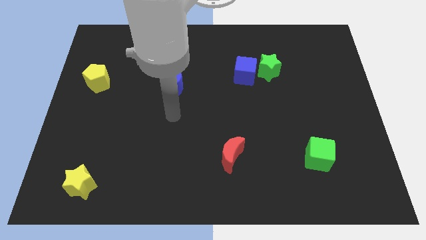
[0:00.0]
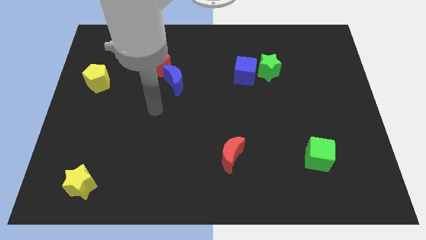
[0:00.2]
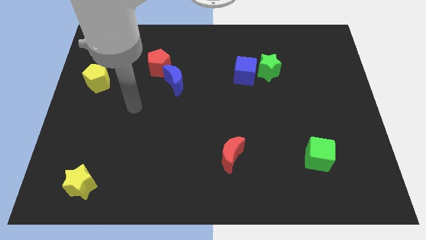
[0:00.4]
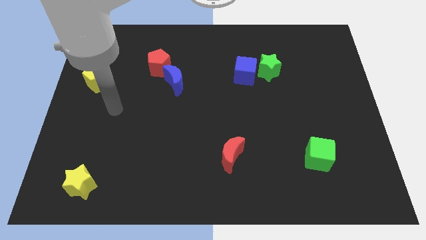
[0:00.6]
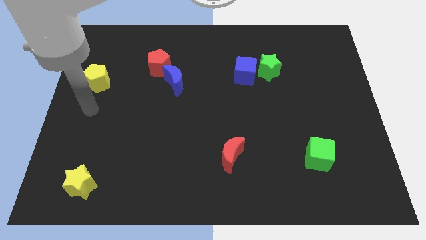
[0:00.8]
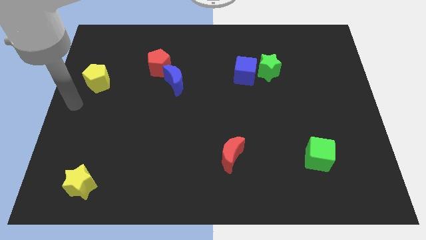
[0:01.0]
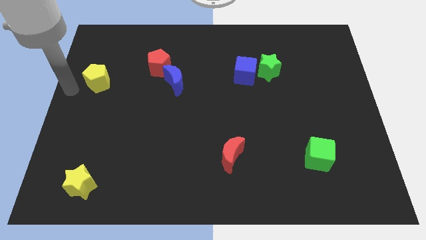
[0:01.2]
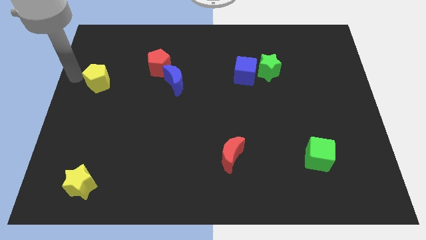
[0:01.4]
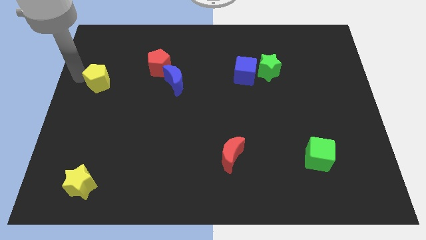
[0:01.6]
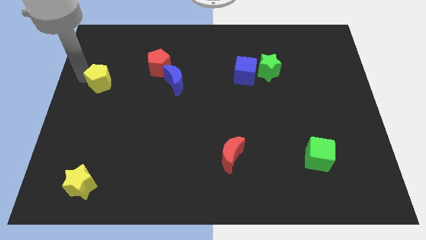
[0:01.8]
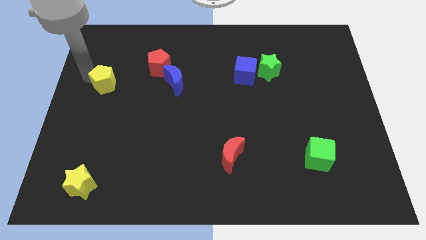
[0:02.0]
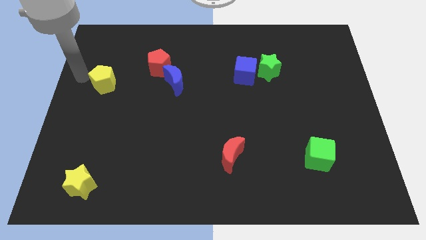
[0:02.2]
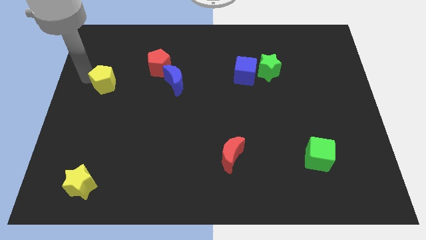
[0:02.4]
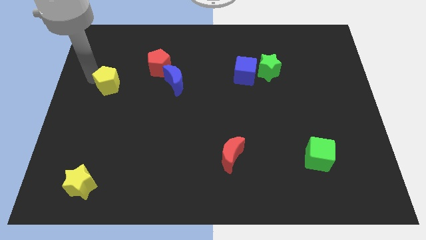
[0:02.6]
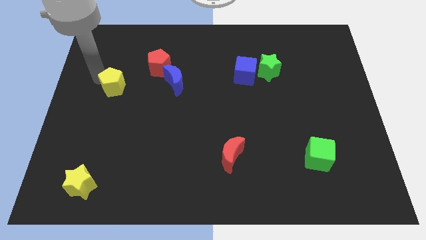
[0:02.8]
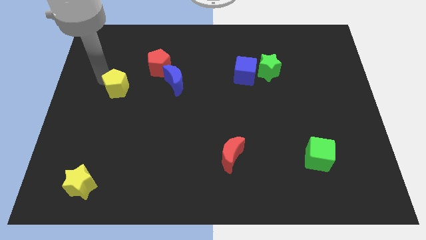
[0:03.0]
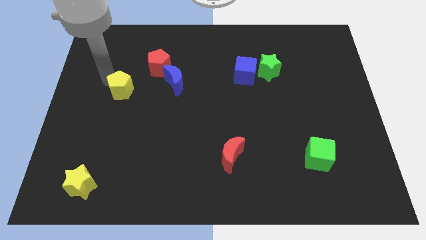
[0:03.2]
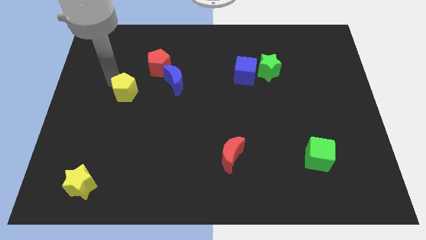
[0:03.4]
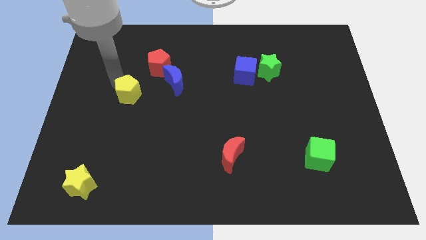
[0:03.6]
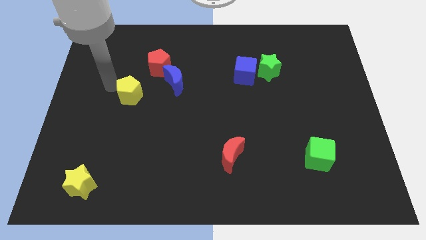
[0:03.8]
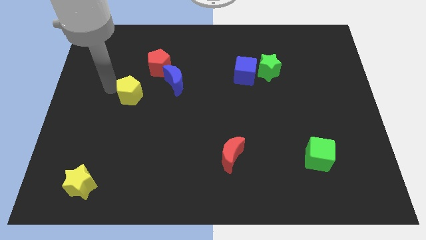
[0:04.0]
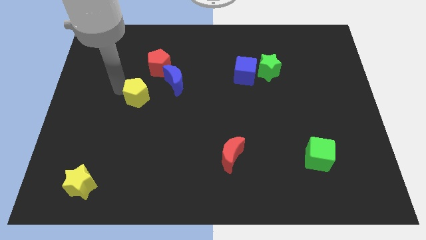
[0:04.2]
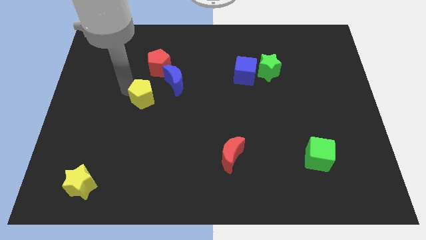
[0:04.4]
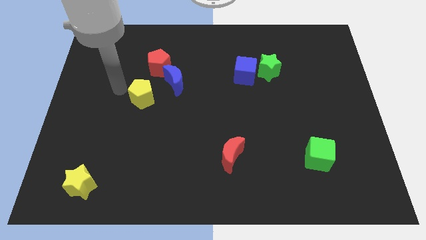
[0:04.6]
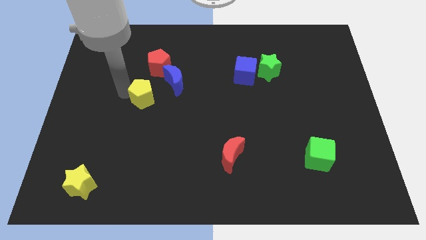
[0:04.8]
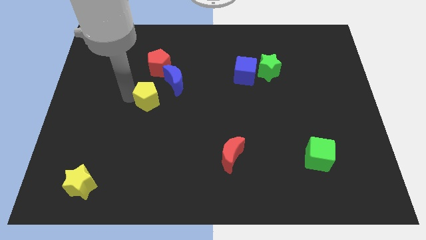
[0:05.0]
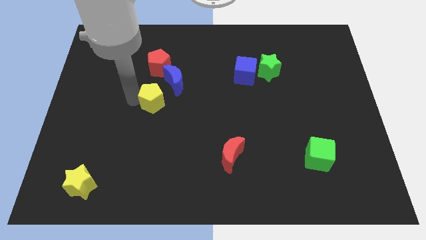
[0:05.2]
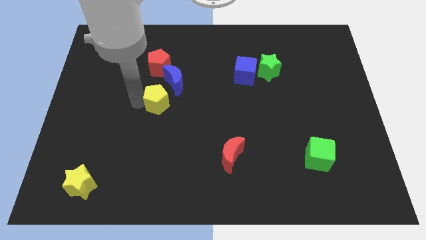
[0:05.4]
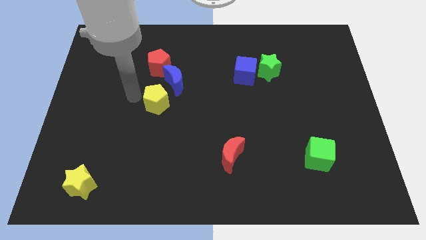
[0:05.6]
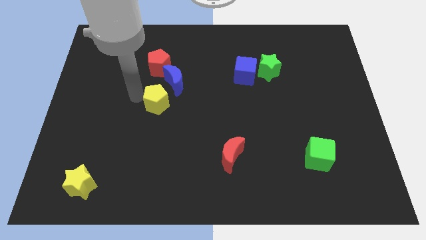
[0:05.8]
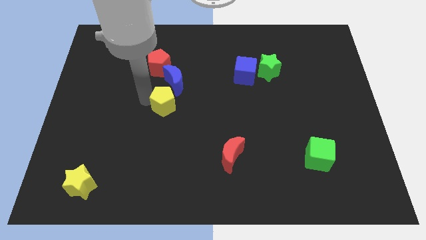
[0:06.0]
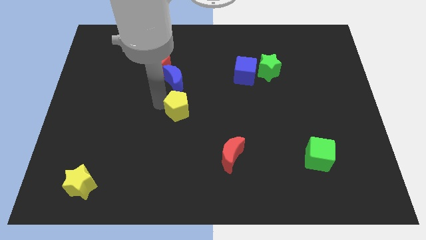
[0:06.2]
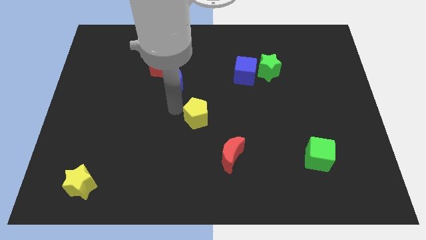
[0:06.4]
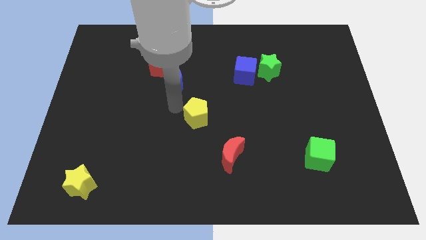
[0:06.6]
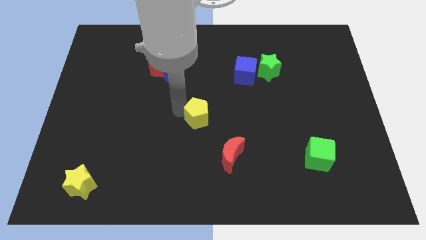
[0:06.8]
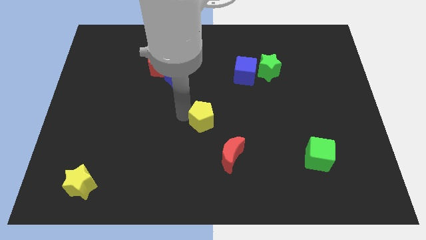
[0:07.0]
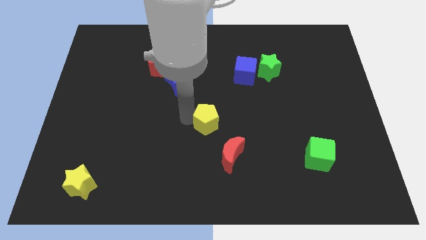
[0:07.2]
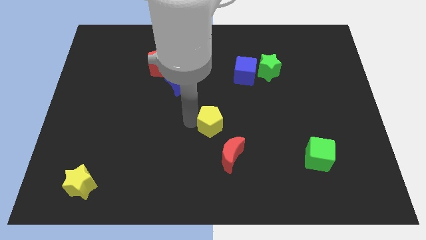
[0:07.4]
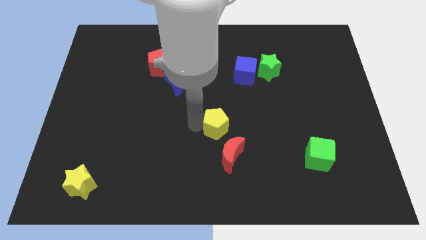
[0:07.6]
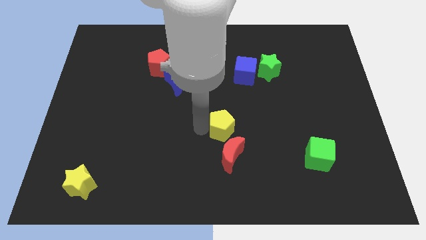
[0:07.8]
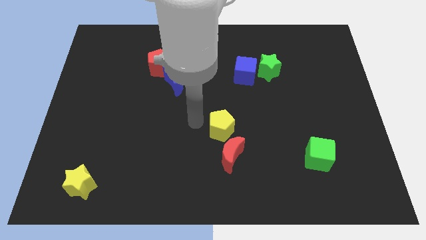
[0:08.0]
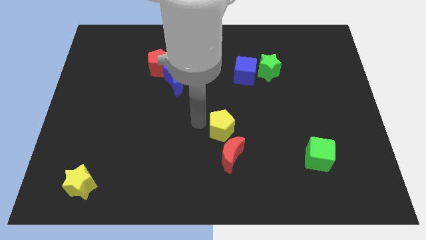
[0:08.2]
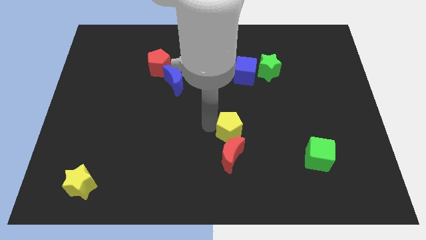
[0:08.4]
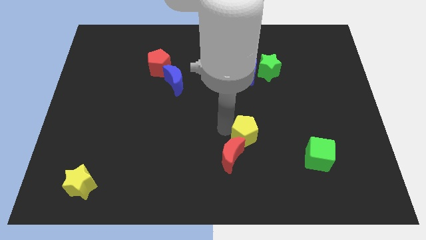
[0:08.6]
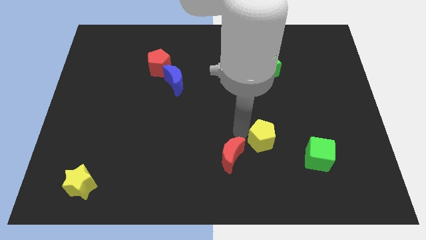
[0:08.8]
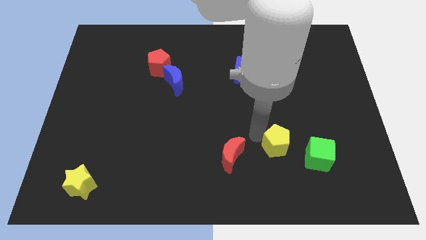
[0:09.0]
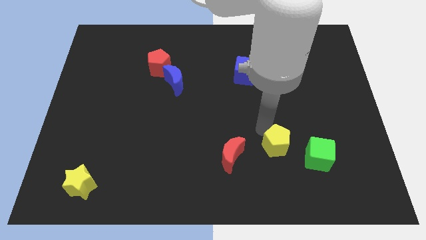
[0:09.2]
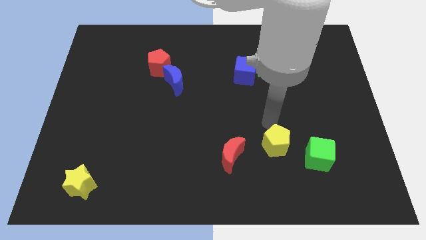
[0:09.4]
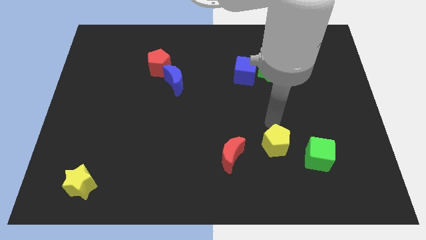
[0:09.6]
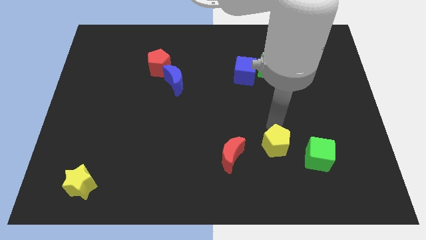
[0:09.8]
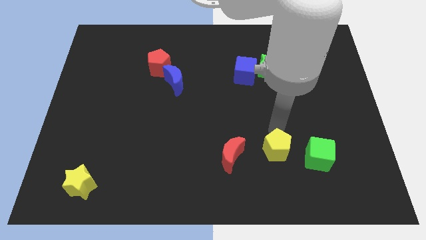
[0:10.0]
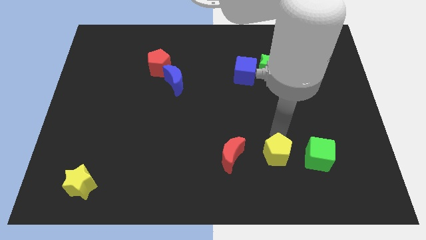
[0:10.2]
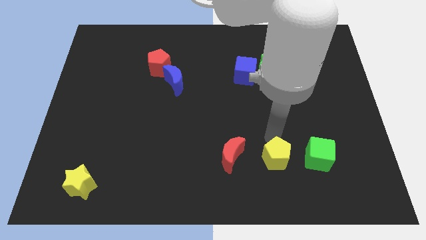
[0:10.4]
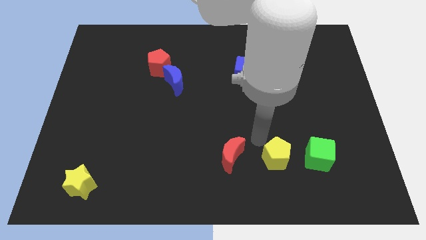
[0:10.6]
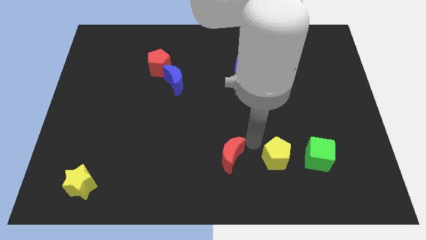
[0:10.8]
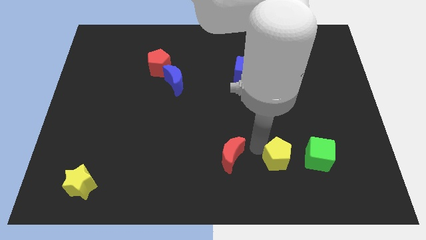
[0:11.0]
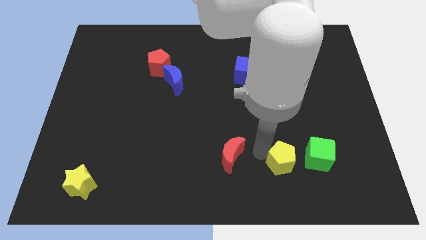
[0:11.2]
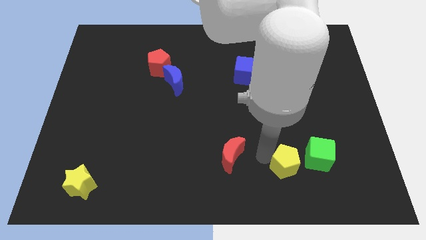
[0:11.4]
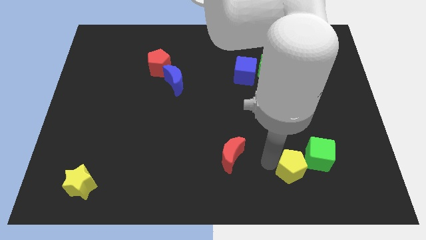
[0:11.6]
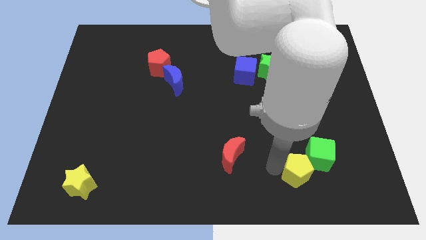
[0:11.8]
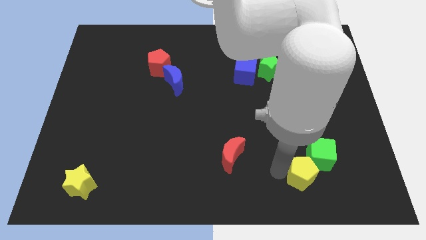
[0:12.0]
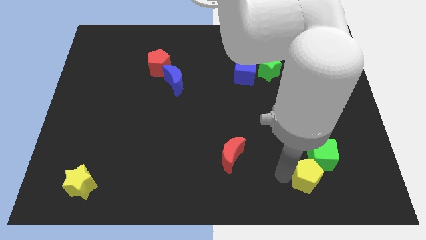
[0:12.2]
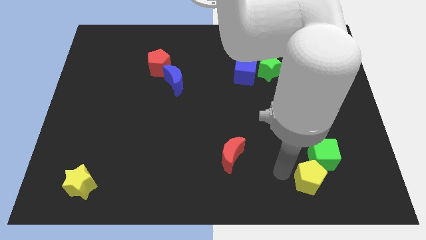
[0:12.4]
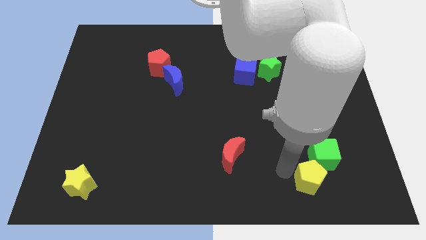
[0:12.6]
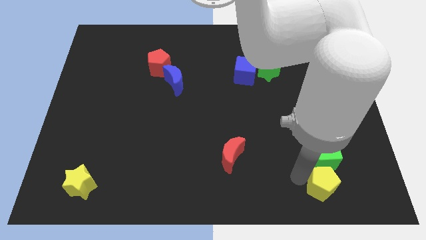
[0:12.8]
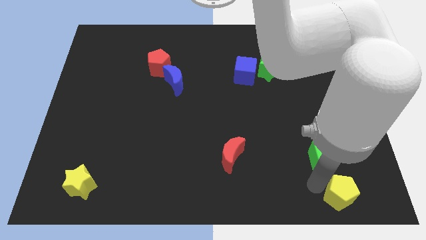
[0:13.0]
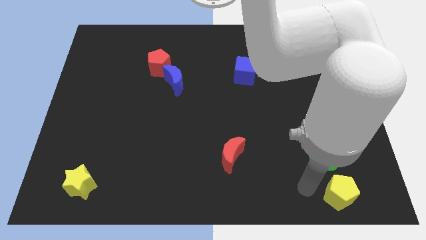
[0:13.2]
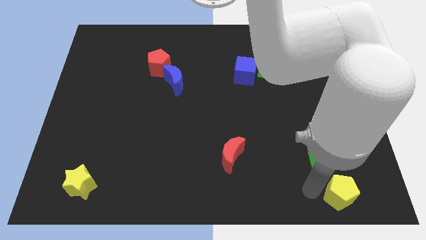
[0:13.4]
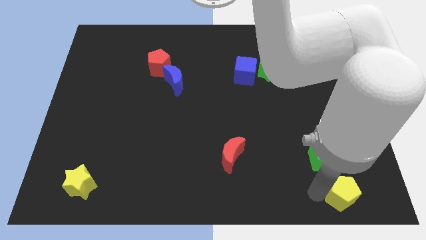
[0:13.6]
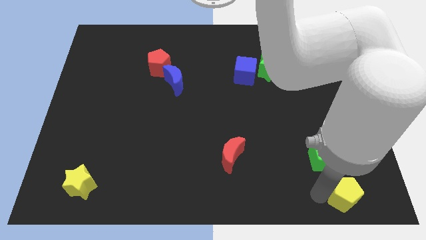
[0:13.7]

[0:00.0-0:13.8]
put the yellow pentagon to the bottom right

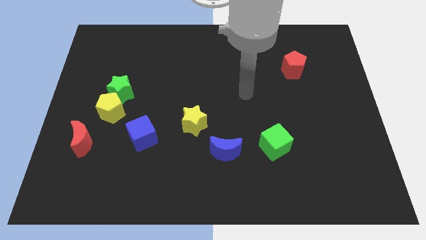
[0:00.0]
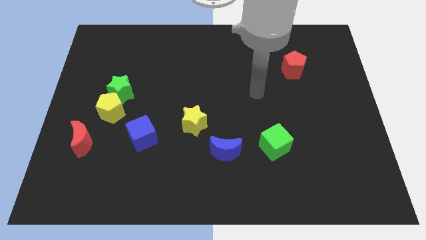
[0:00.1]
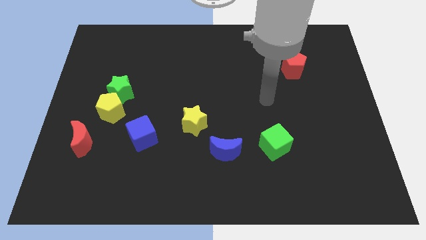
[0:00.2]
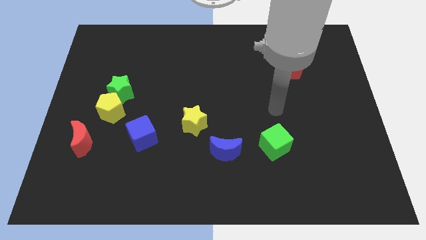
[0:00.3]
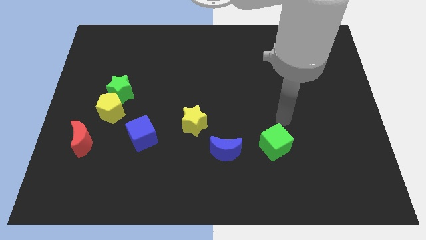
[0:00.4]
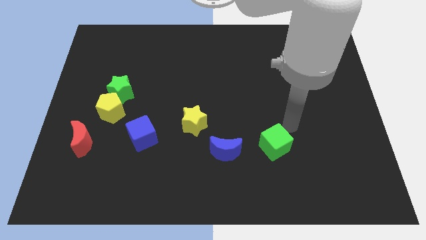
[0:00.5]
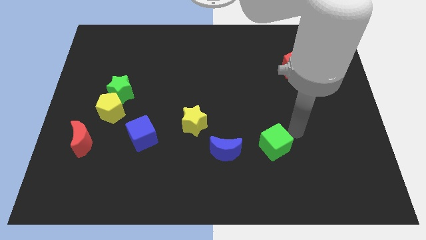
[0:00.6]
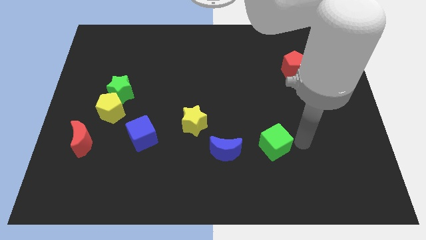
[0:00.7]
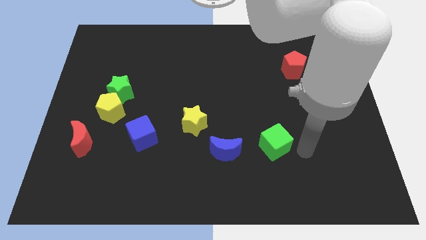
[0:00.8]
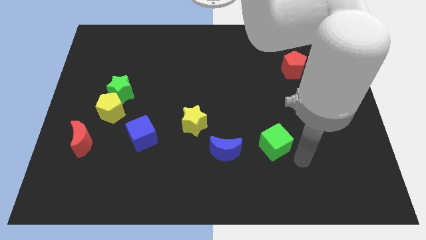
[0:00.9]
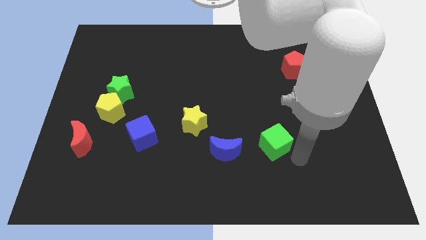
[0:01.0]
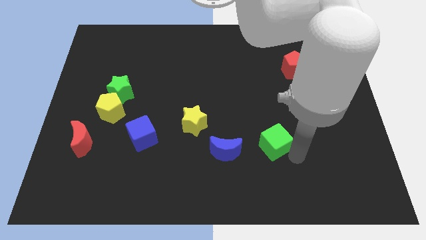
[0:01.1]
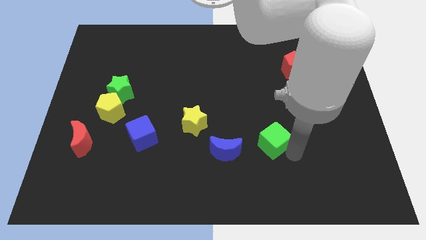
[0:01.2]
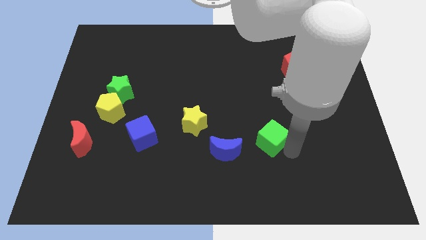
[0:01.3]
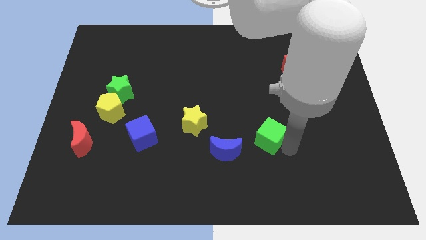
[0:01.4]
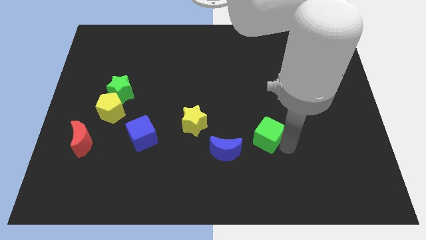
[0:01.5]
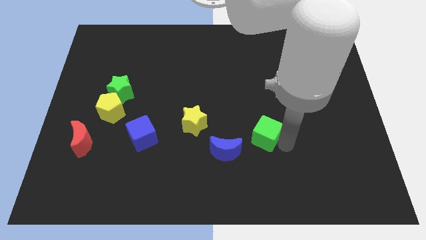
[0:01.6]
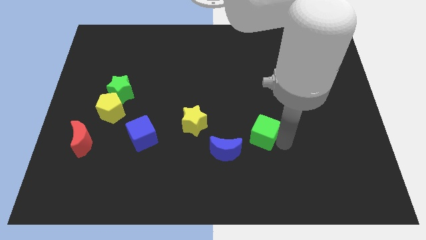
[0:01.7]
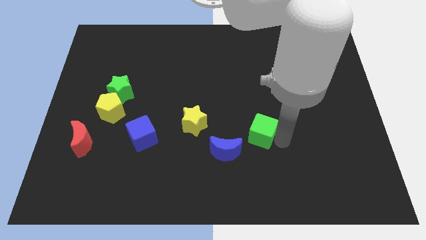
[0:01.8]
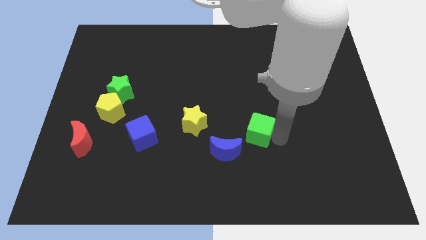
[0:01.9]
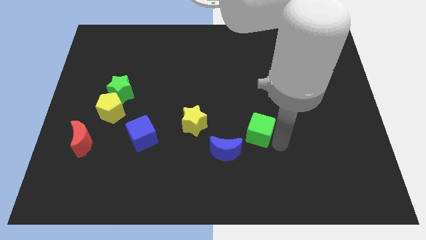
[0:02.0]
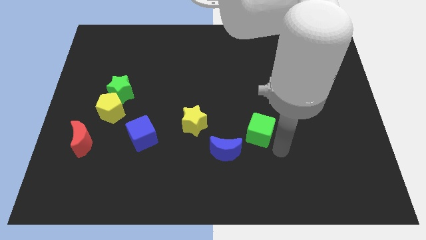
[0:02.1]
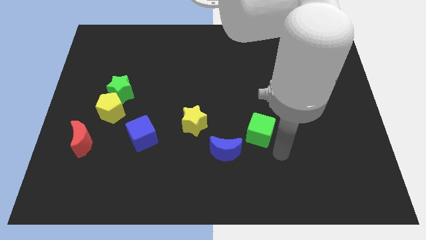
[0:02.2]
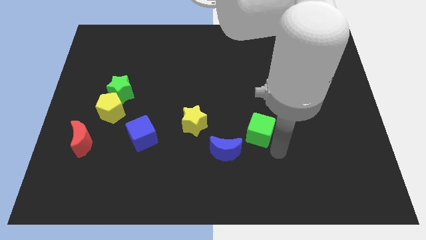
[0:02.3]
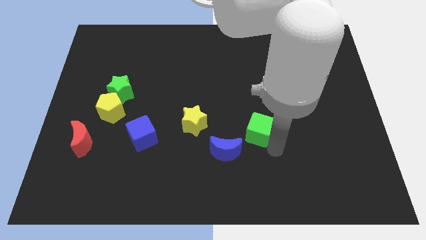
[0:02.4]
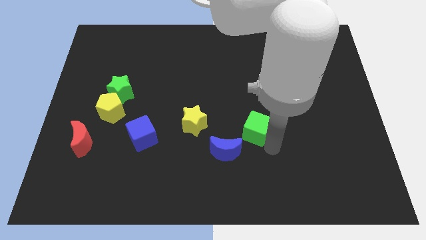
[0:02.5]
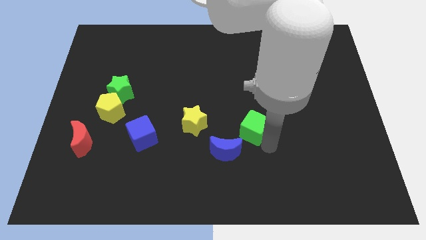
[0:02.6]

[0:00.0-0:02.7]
push the green cube to the middle of the board
